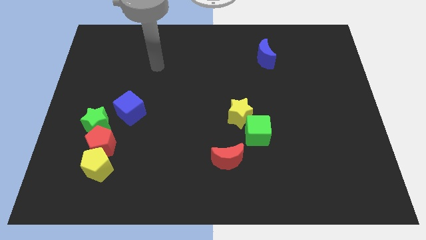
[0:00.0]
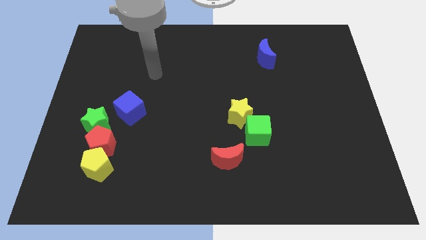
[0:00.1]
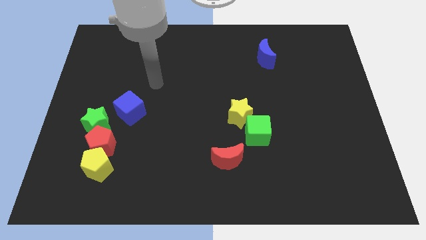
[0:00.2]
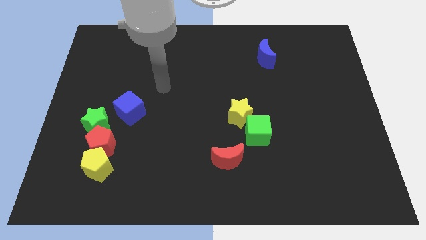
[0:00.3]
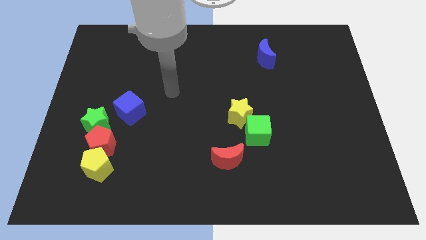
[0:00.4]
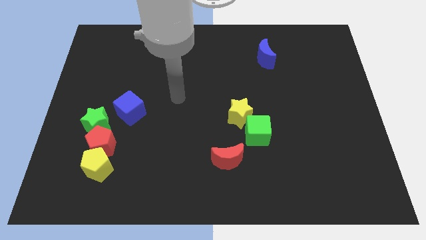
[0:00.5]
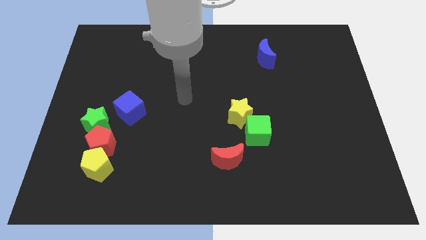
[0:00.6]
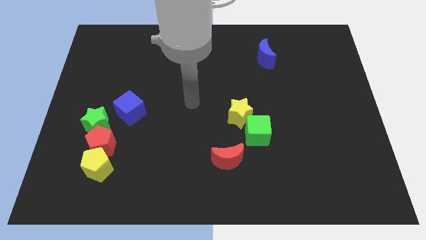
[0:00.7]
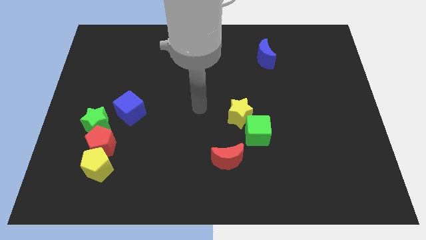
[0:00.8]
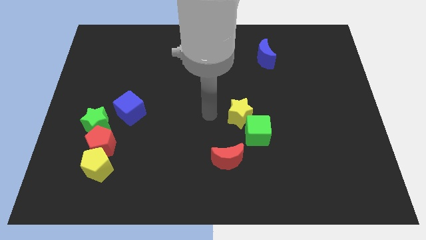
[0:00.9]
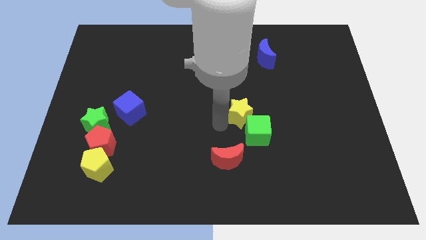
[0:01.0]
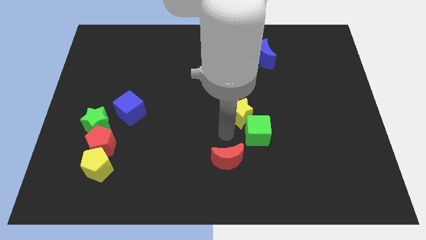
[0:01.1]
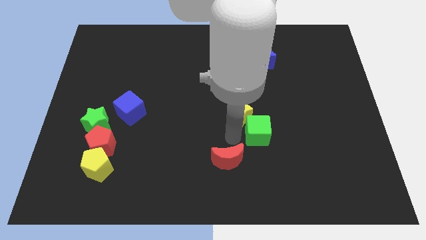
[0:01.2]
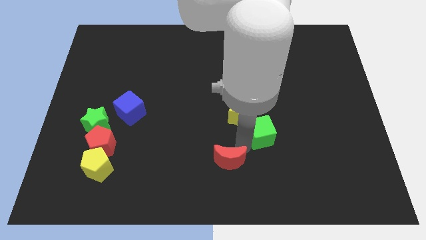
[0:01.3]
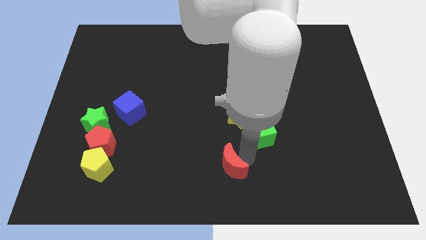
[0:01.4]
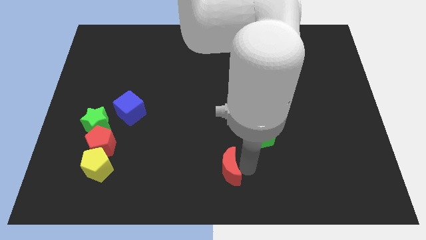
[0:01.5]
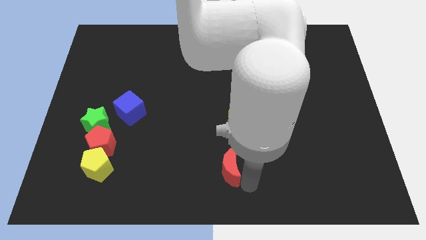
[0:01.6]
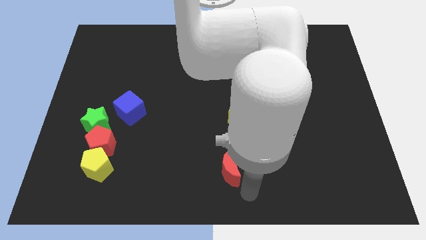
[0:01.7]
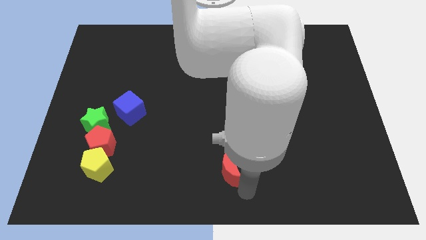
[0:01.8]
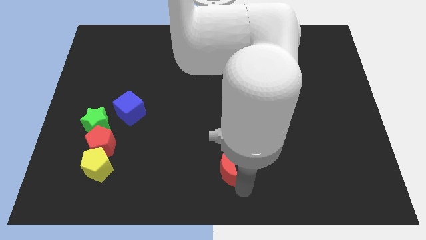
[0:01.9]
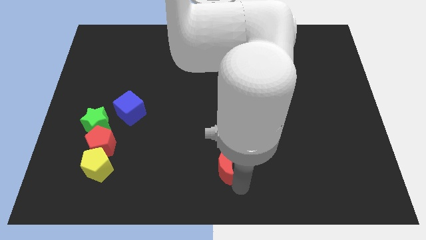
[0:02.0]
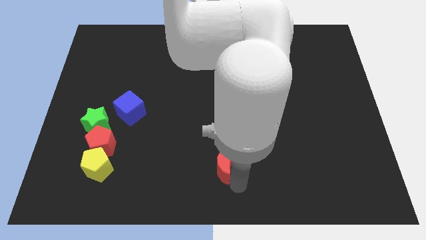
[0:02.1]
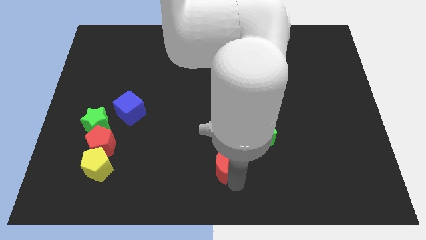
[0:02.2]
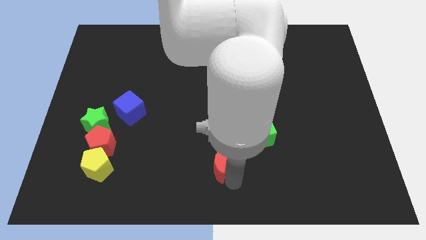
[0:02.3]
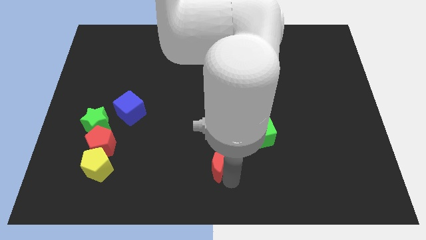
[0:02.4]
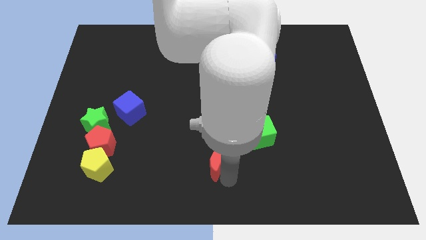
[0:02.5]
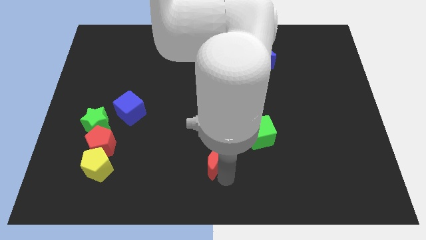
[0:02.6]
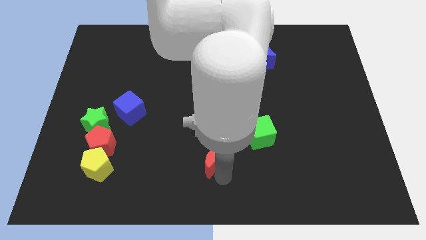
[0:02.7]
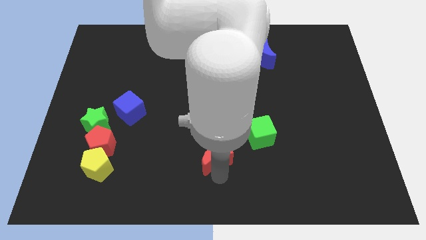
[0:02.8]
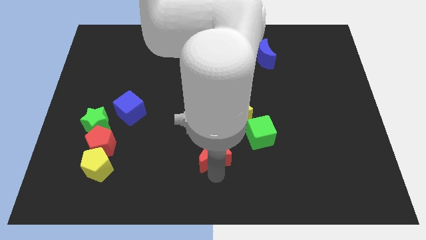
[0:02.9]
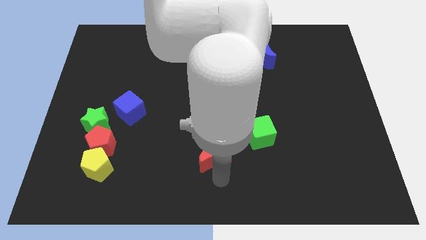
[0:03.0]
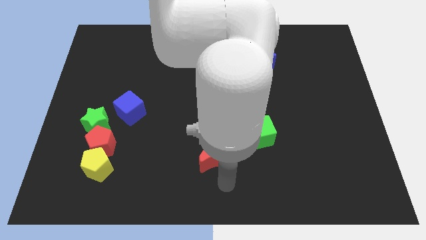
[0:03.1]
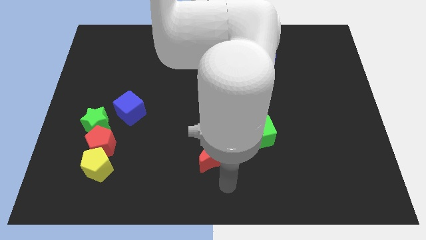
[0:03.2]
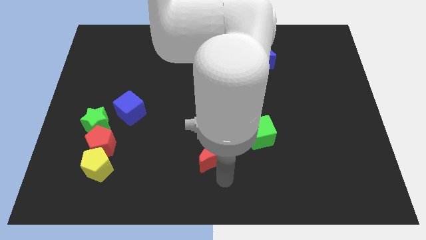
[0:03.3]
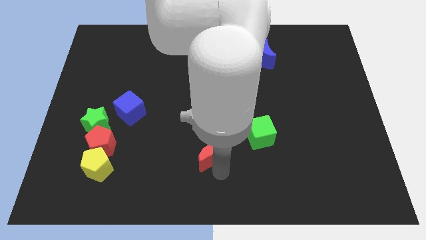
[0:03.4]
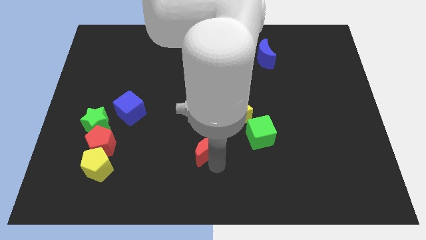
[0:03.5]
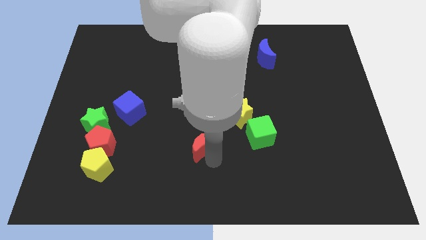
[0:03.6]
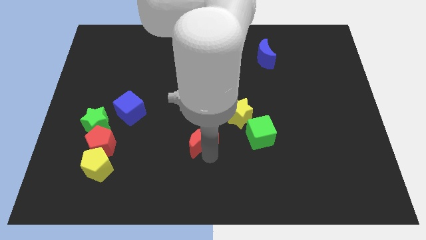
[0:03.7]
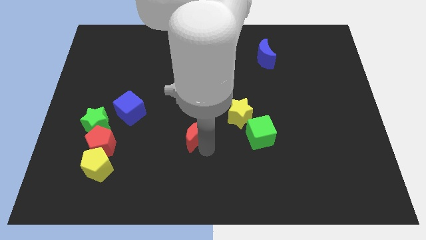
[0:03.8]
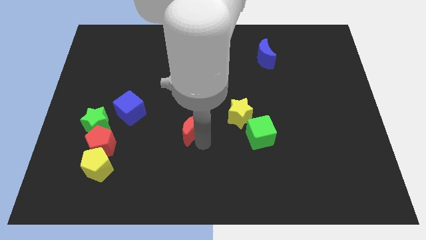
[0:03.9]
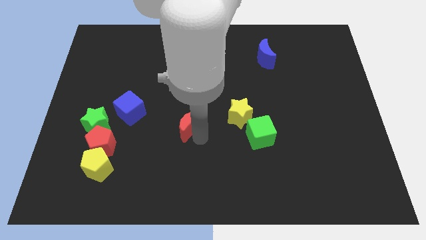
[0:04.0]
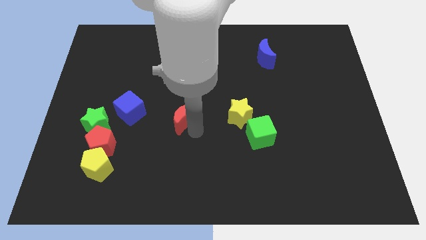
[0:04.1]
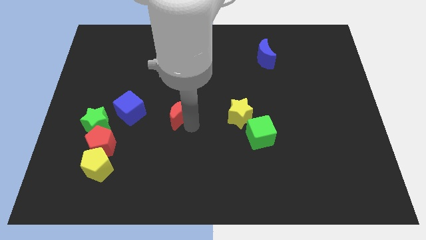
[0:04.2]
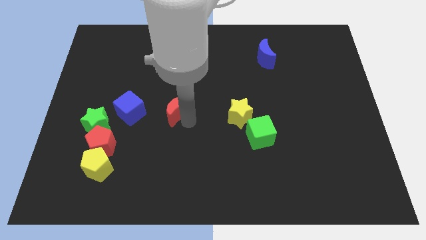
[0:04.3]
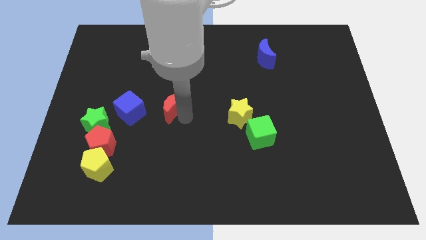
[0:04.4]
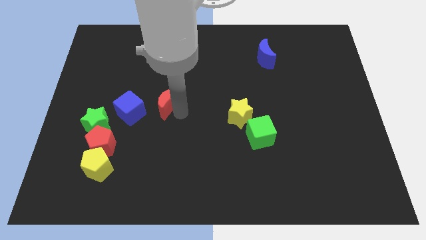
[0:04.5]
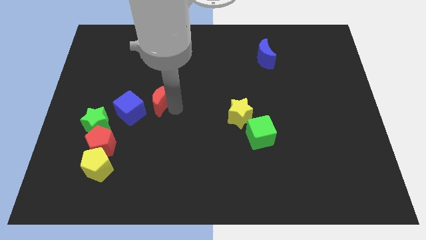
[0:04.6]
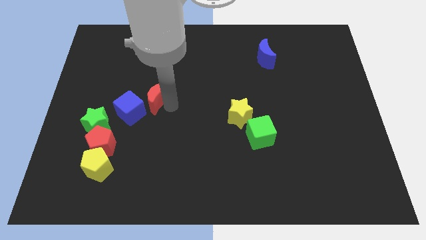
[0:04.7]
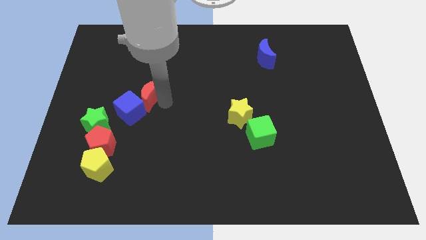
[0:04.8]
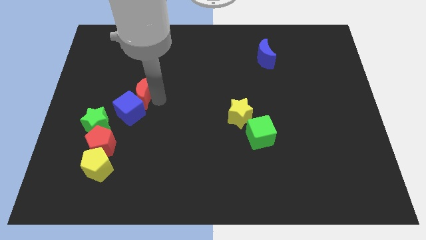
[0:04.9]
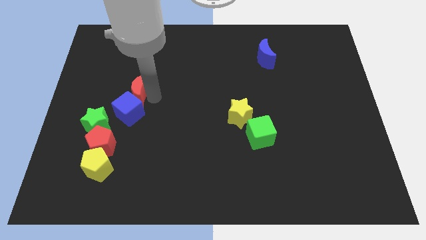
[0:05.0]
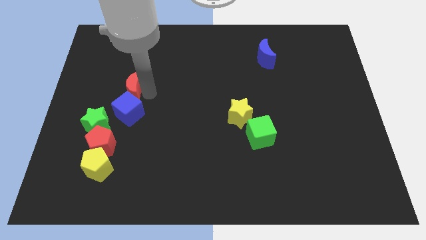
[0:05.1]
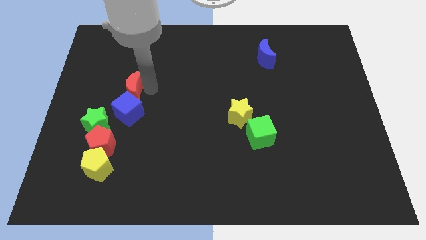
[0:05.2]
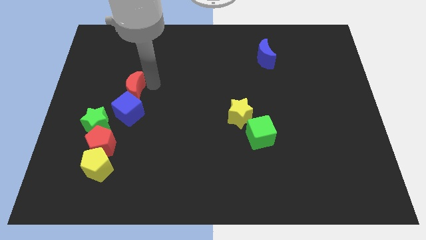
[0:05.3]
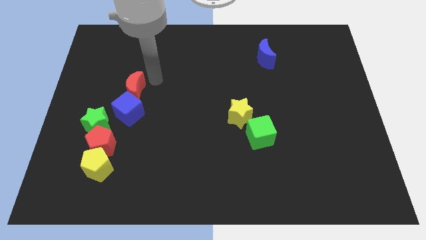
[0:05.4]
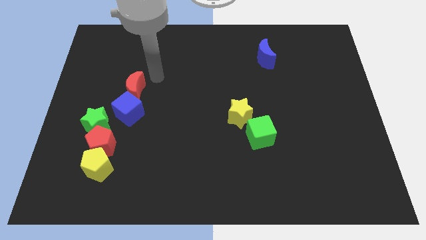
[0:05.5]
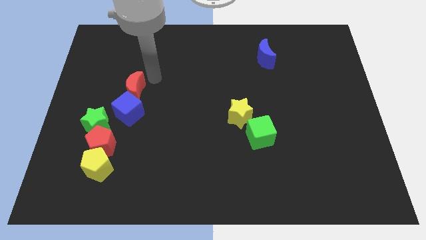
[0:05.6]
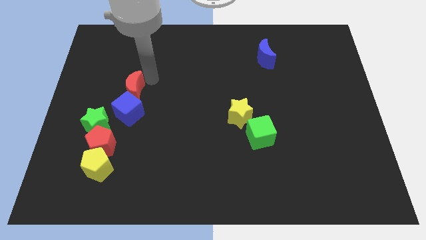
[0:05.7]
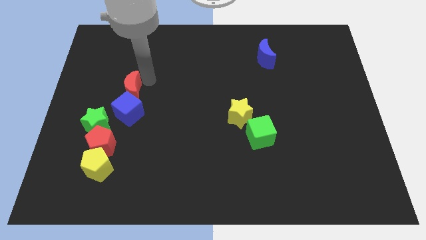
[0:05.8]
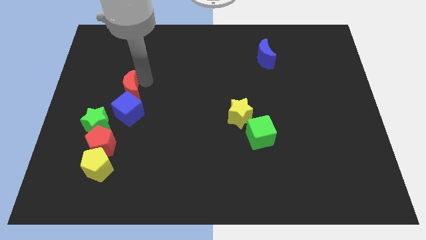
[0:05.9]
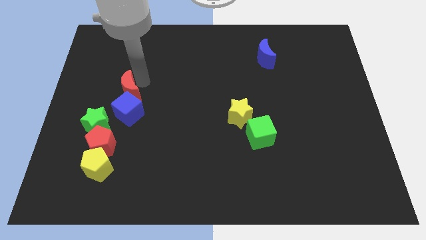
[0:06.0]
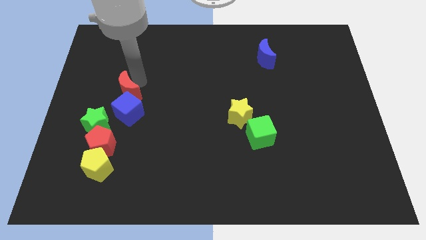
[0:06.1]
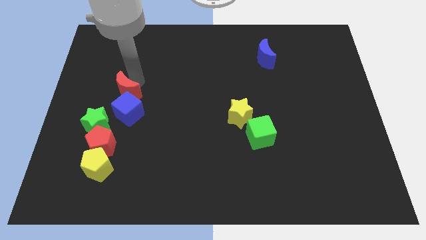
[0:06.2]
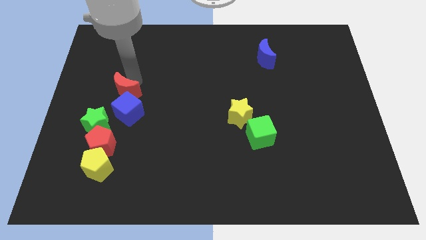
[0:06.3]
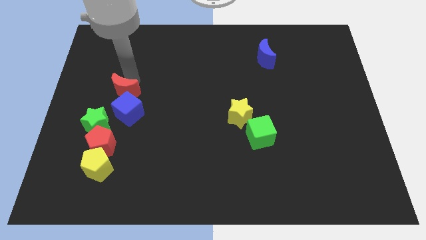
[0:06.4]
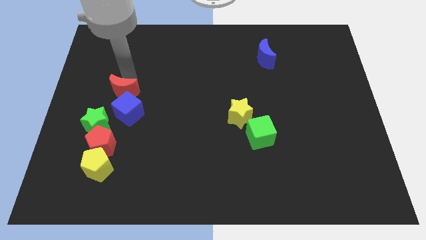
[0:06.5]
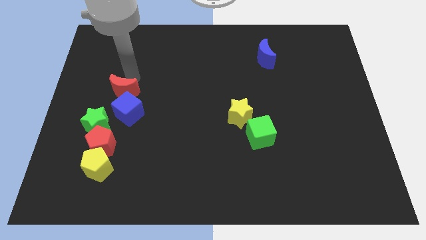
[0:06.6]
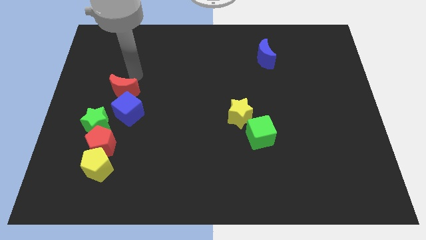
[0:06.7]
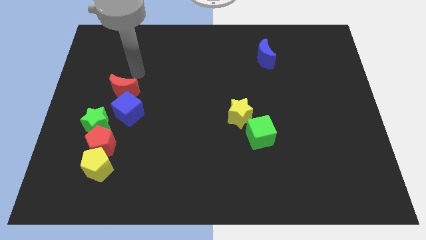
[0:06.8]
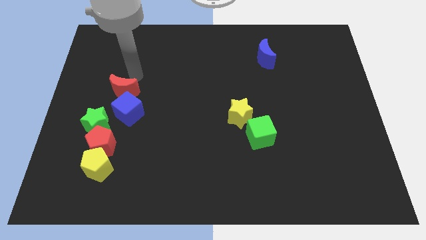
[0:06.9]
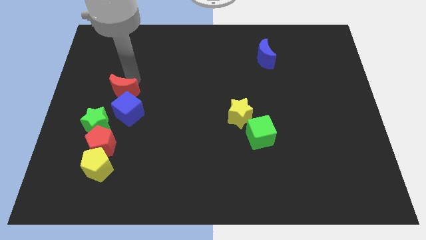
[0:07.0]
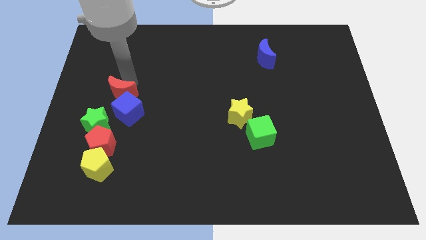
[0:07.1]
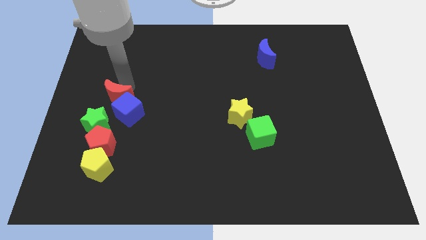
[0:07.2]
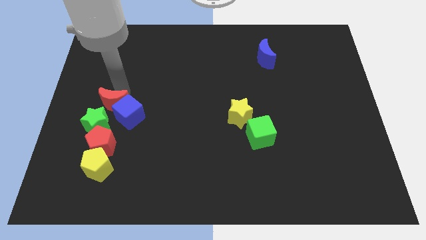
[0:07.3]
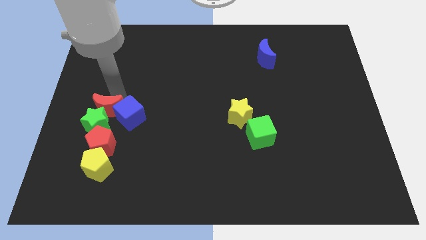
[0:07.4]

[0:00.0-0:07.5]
push the red moon next to the green star
